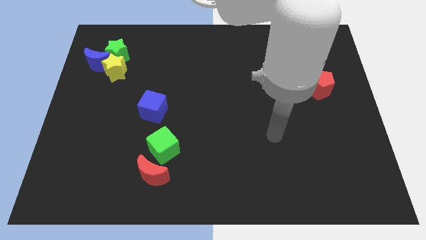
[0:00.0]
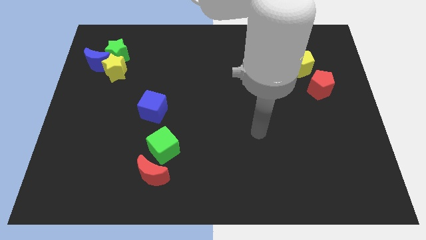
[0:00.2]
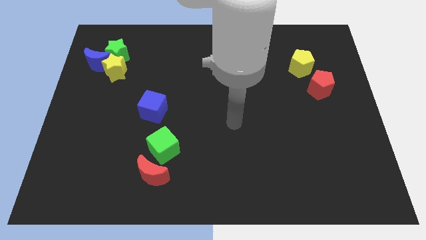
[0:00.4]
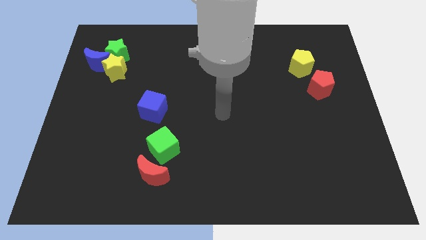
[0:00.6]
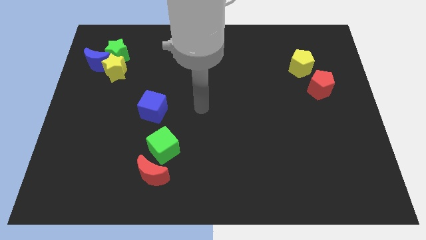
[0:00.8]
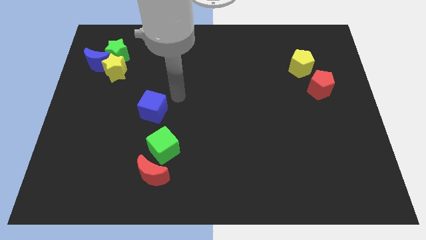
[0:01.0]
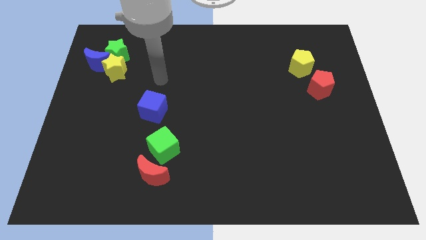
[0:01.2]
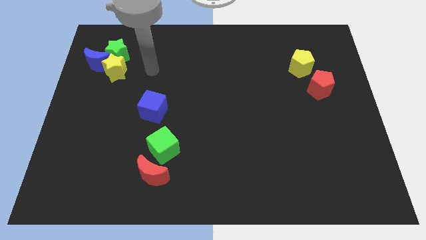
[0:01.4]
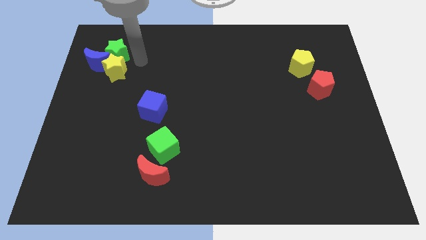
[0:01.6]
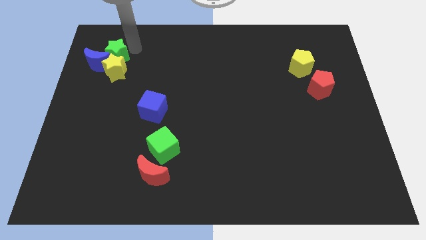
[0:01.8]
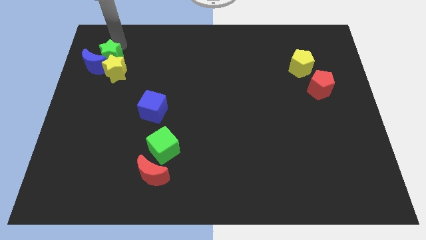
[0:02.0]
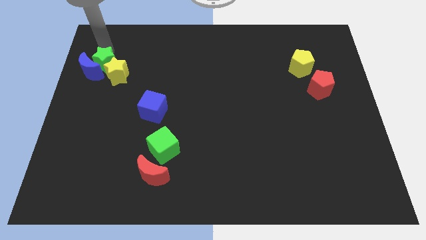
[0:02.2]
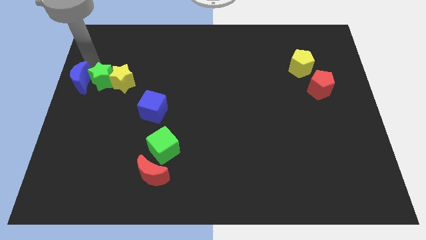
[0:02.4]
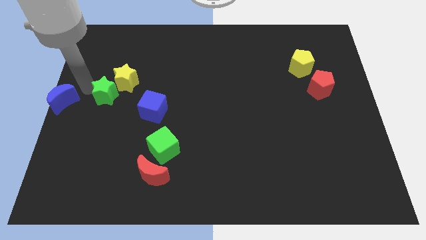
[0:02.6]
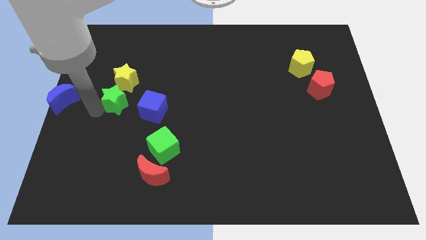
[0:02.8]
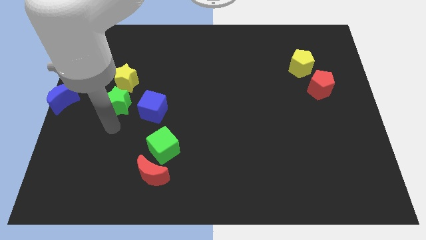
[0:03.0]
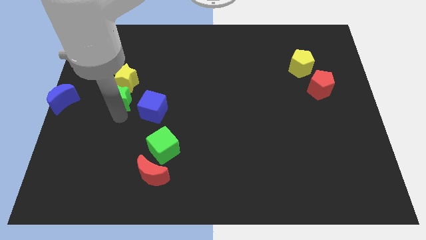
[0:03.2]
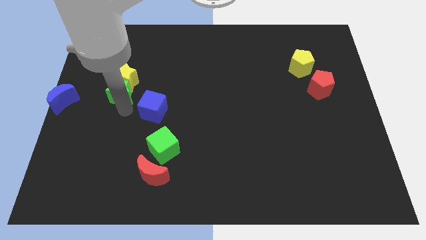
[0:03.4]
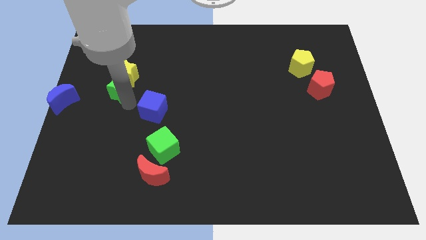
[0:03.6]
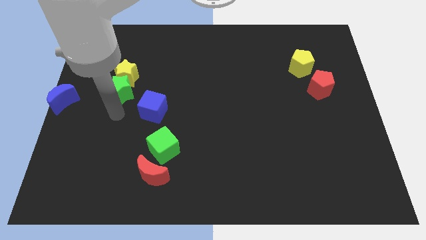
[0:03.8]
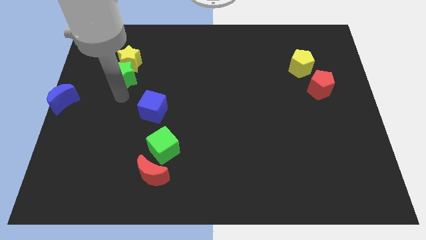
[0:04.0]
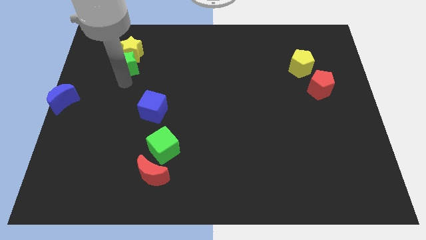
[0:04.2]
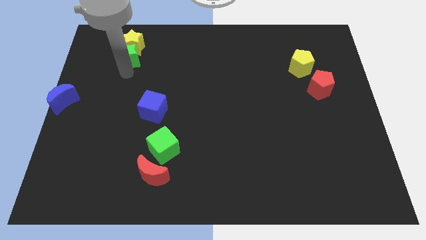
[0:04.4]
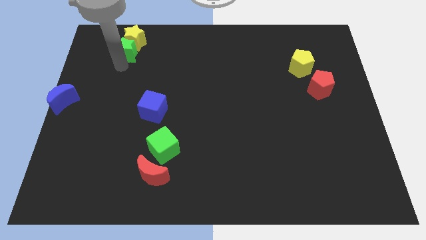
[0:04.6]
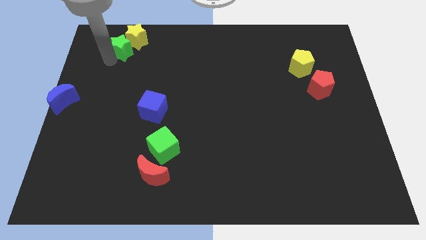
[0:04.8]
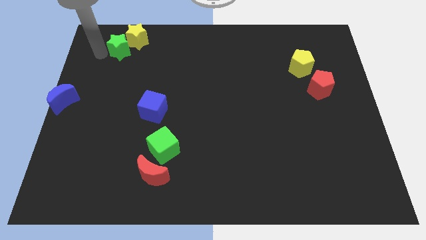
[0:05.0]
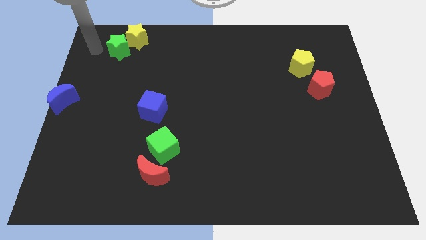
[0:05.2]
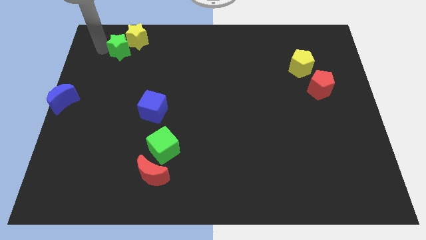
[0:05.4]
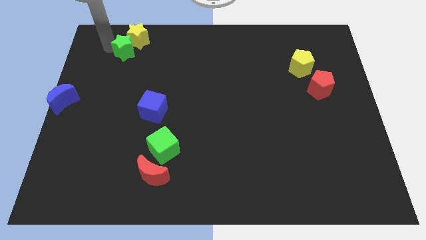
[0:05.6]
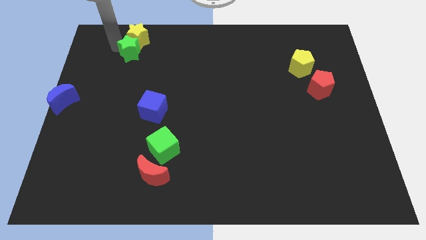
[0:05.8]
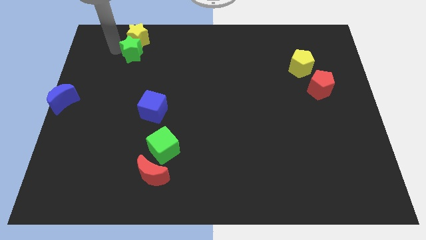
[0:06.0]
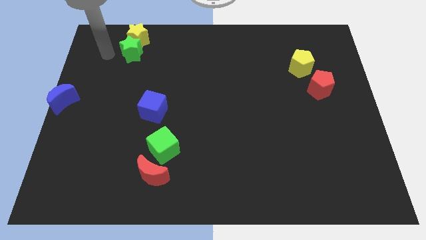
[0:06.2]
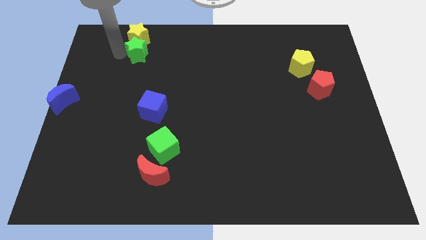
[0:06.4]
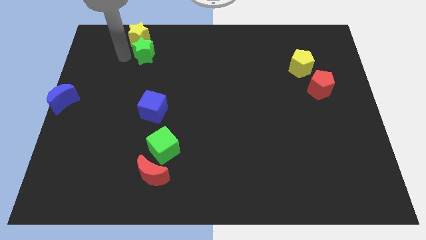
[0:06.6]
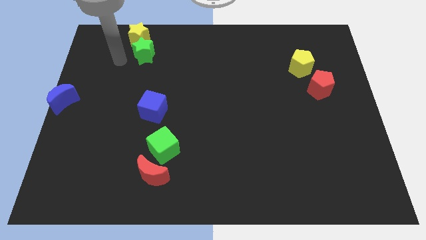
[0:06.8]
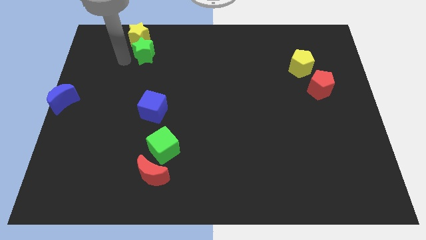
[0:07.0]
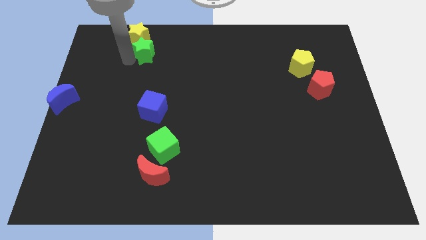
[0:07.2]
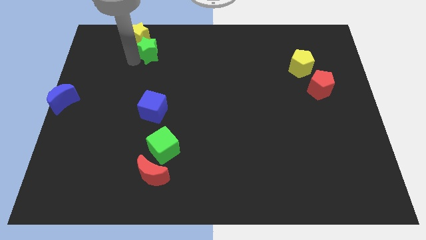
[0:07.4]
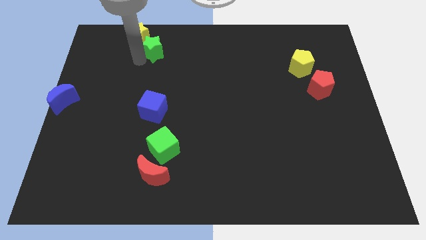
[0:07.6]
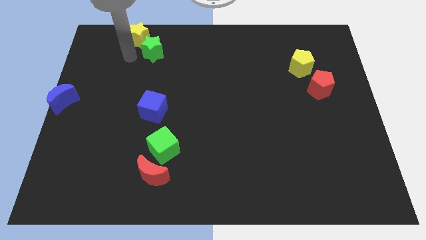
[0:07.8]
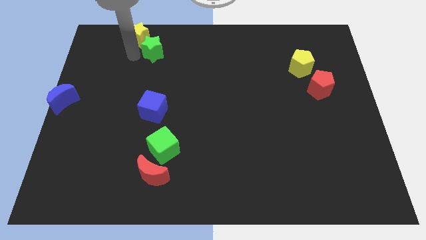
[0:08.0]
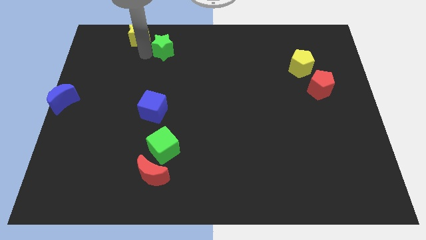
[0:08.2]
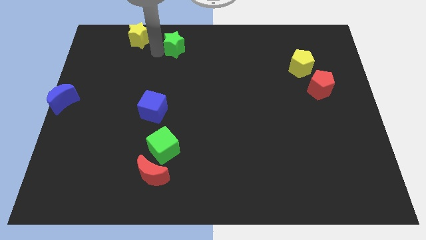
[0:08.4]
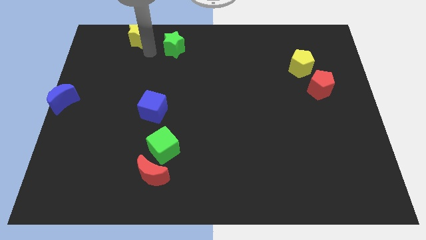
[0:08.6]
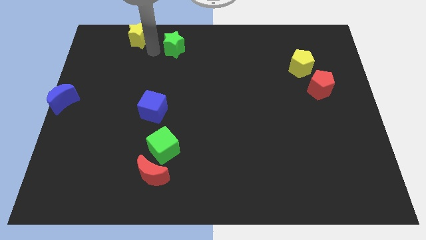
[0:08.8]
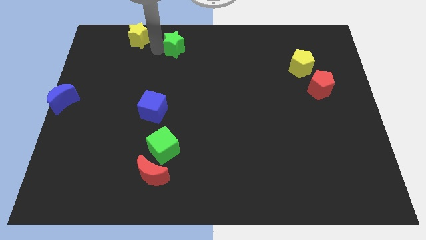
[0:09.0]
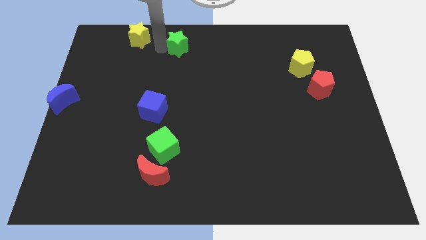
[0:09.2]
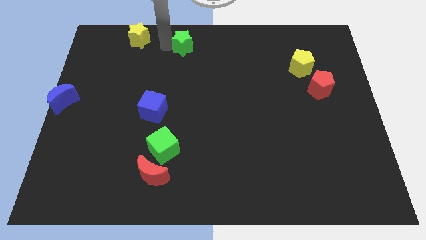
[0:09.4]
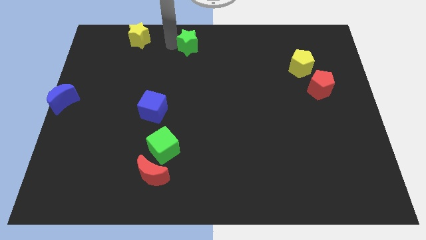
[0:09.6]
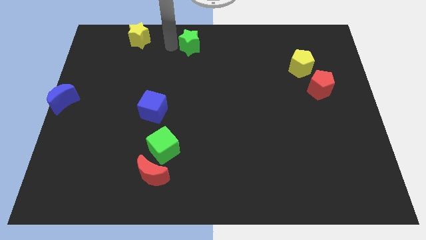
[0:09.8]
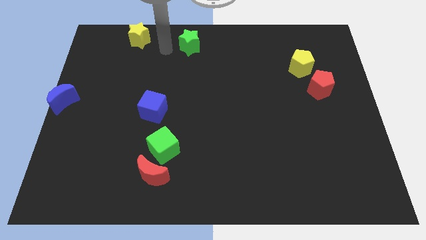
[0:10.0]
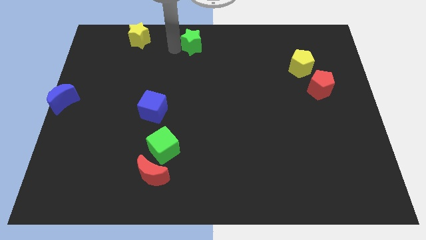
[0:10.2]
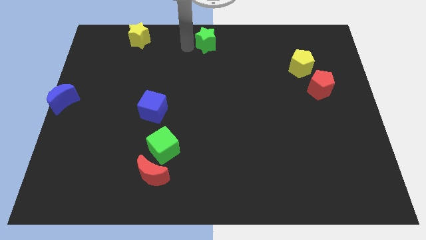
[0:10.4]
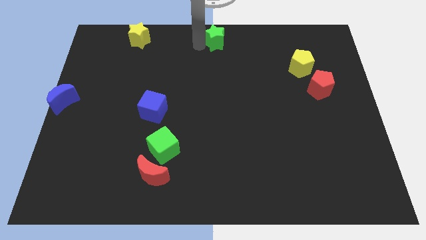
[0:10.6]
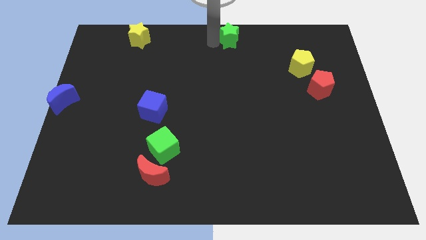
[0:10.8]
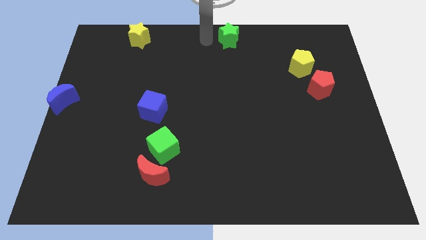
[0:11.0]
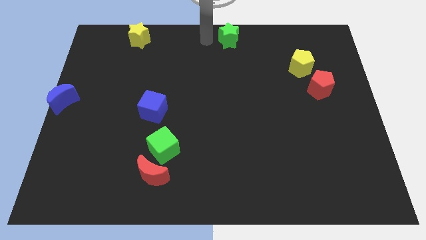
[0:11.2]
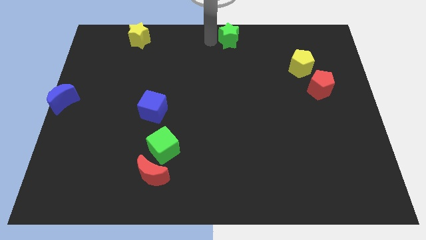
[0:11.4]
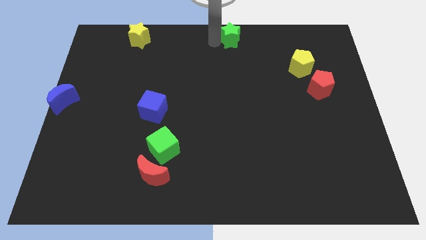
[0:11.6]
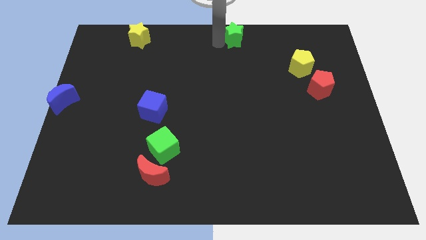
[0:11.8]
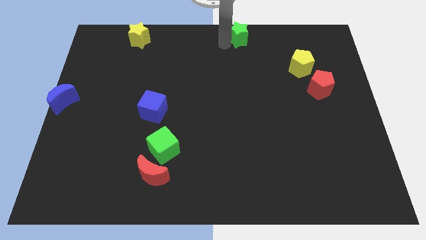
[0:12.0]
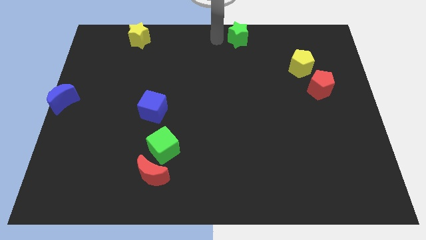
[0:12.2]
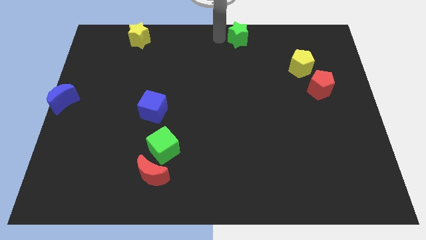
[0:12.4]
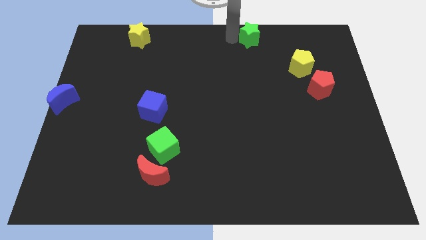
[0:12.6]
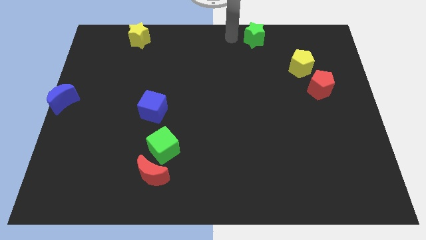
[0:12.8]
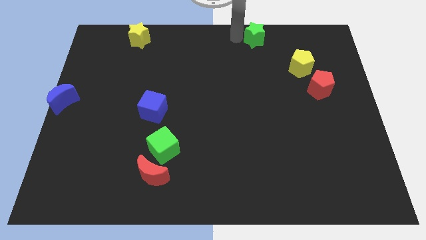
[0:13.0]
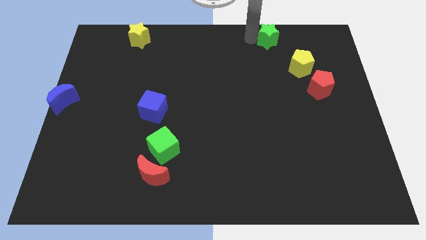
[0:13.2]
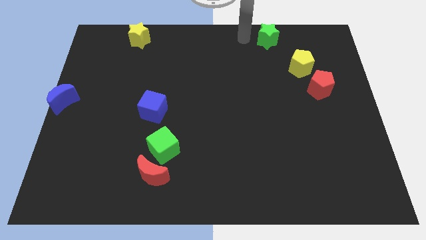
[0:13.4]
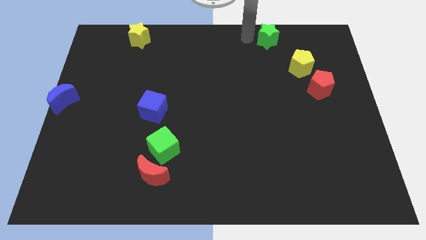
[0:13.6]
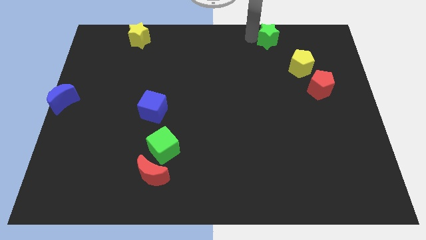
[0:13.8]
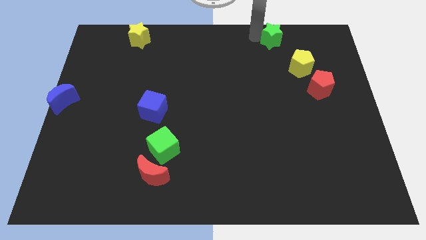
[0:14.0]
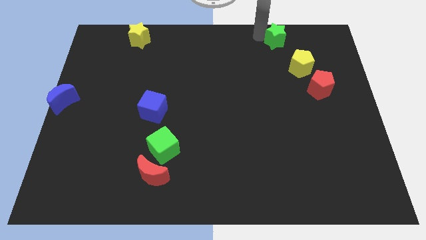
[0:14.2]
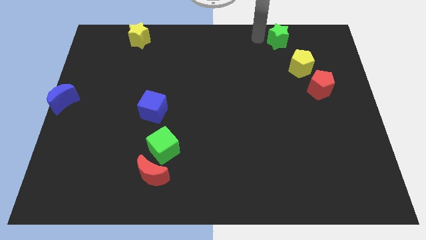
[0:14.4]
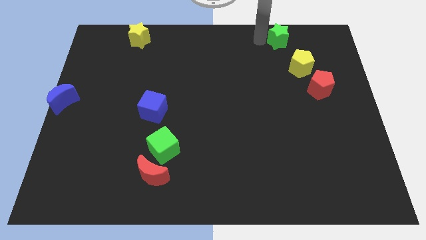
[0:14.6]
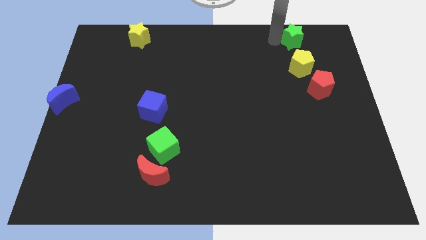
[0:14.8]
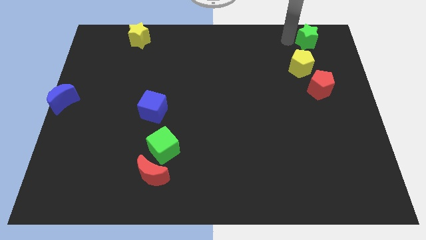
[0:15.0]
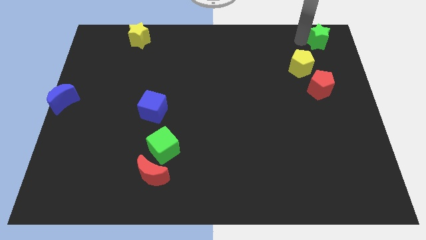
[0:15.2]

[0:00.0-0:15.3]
put the green star to the top right corner
